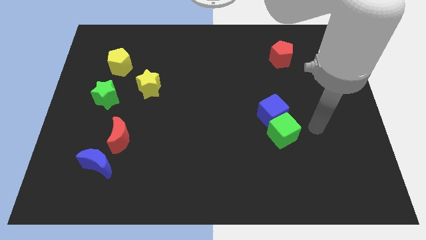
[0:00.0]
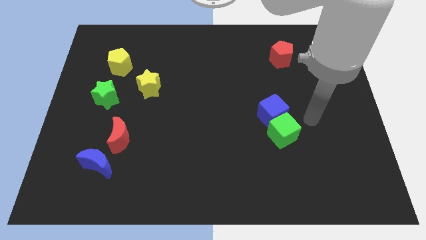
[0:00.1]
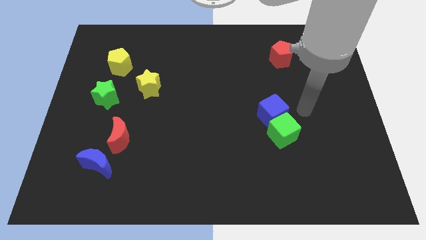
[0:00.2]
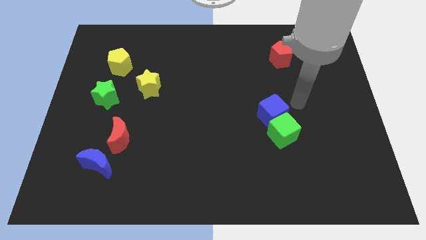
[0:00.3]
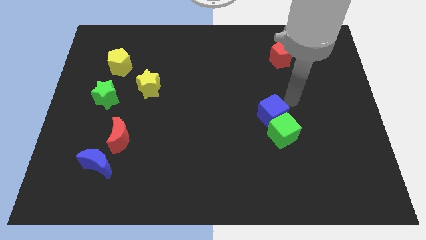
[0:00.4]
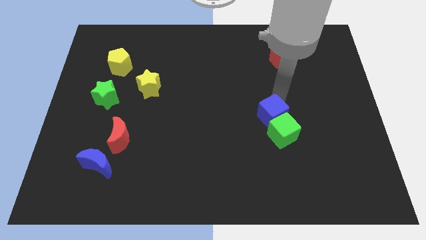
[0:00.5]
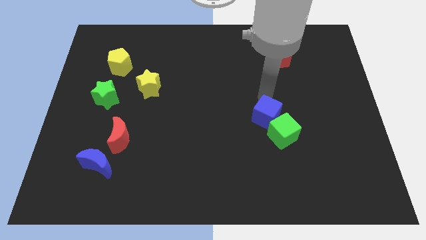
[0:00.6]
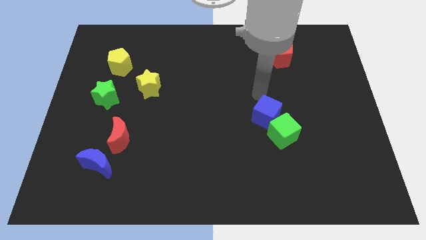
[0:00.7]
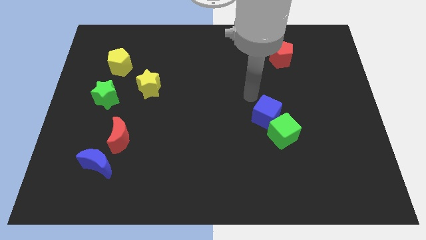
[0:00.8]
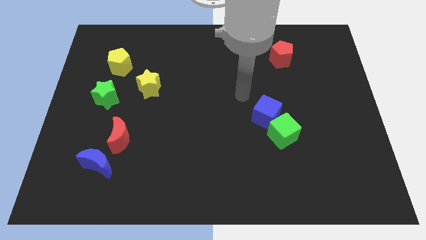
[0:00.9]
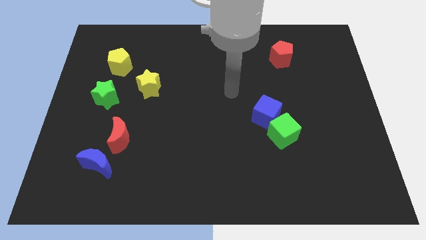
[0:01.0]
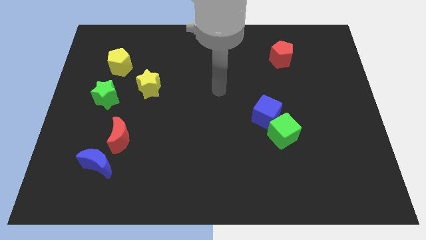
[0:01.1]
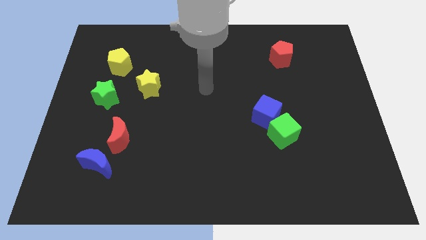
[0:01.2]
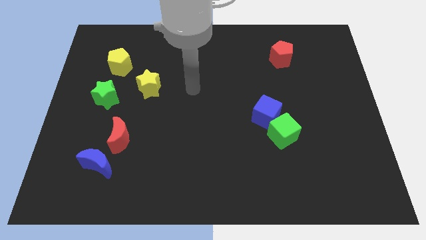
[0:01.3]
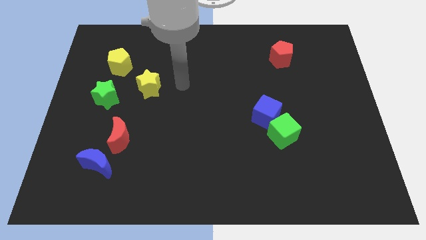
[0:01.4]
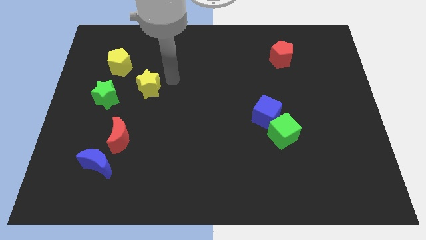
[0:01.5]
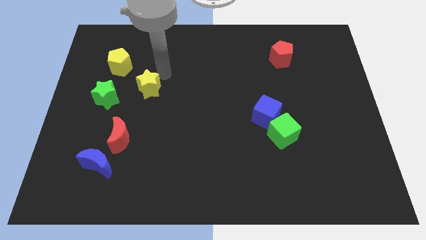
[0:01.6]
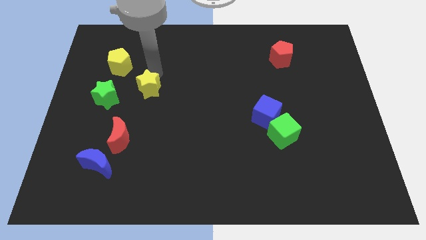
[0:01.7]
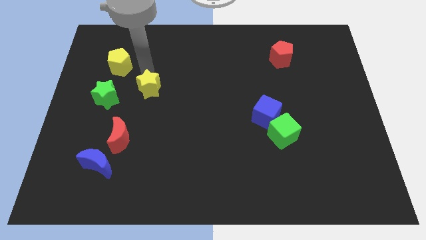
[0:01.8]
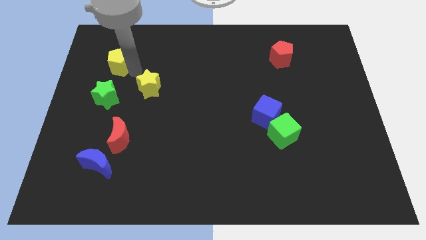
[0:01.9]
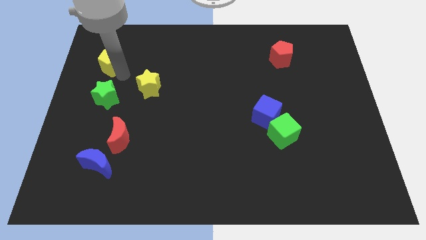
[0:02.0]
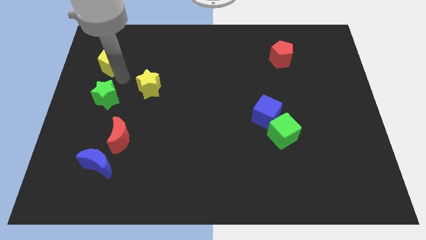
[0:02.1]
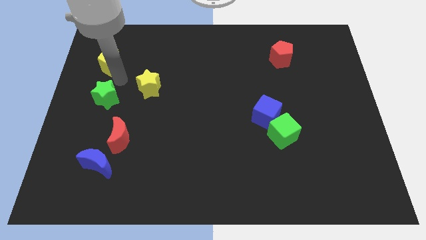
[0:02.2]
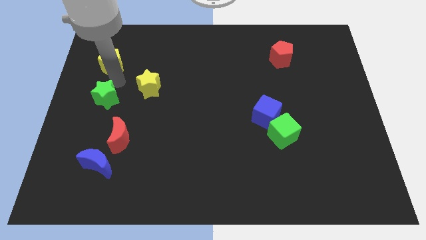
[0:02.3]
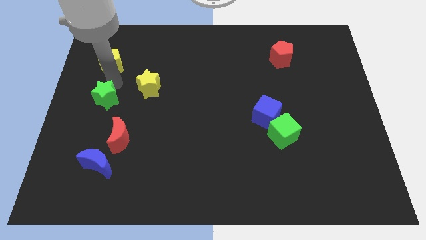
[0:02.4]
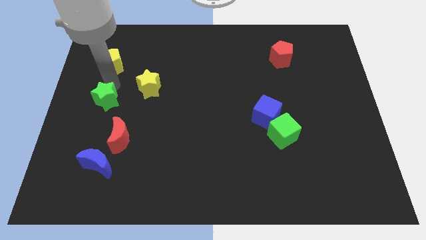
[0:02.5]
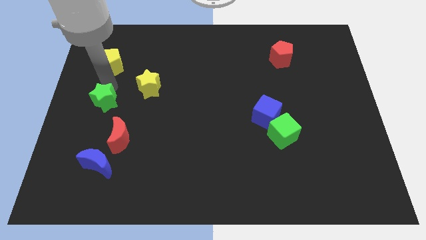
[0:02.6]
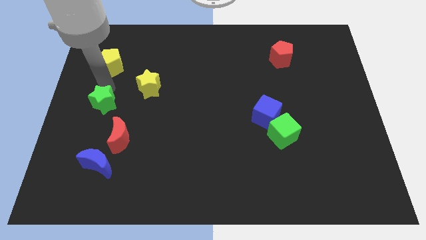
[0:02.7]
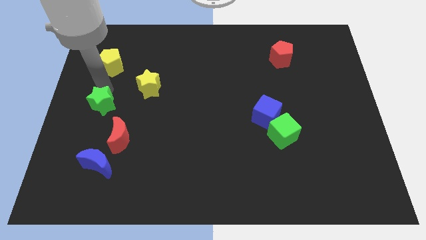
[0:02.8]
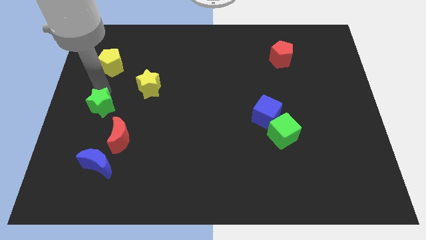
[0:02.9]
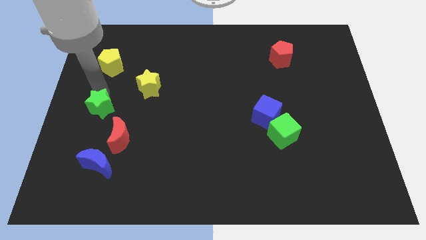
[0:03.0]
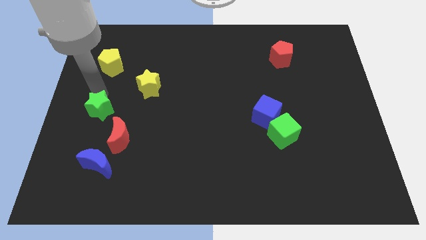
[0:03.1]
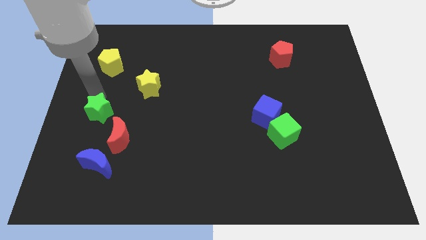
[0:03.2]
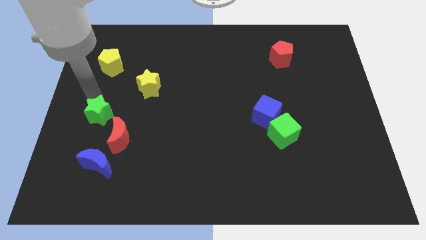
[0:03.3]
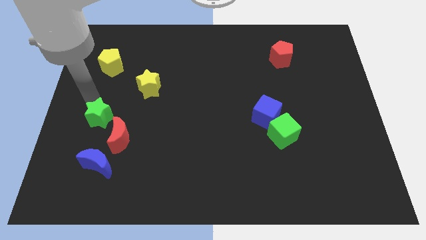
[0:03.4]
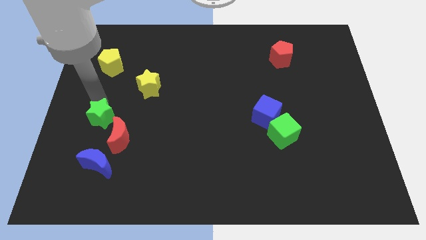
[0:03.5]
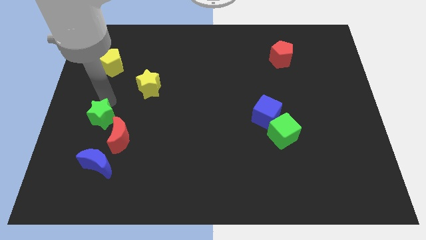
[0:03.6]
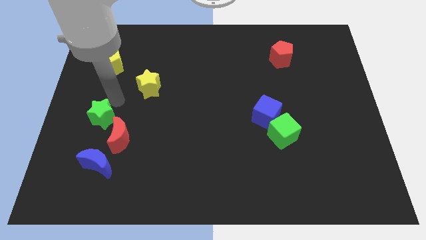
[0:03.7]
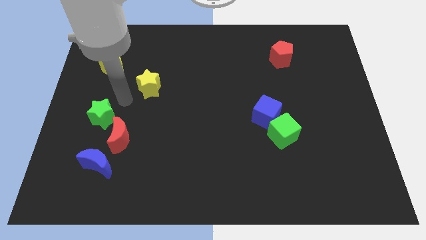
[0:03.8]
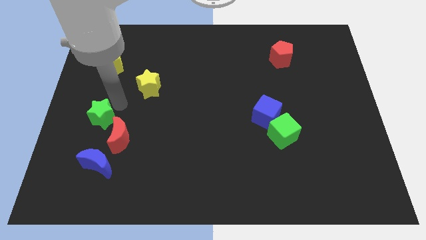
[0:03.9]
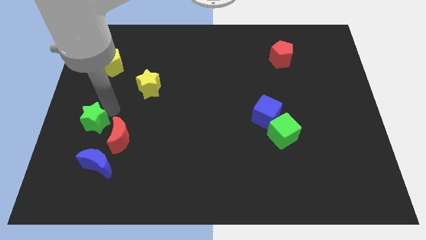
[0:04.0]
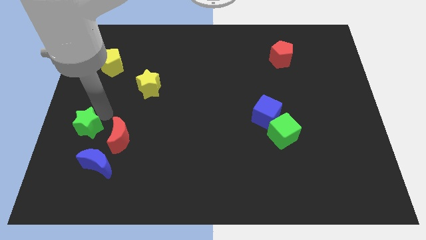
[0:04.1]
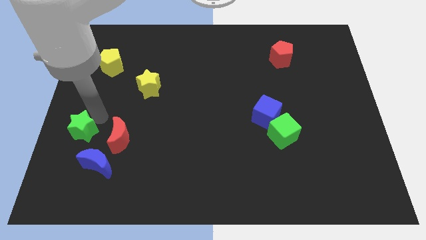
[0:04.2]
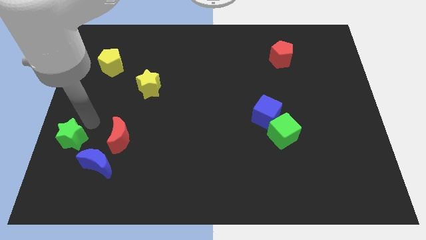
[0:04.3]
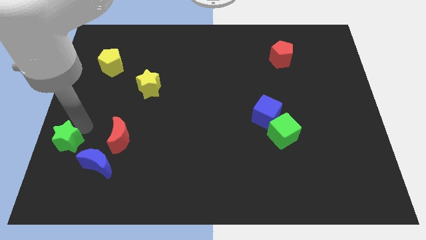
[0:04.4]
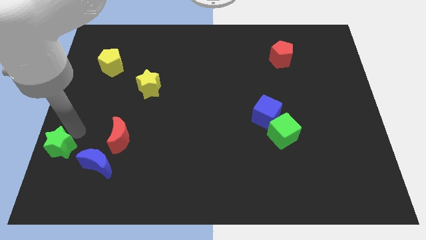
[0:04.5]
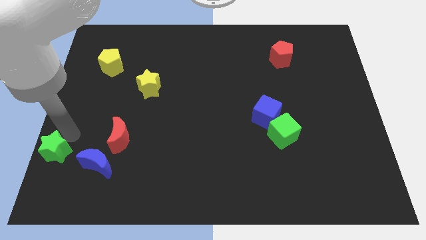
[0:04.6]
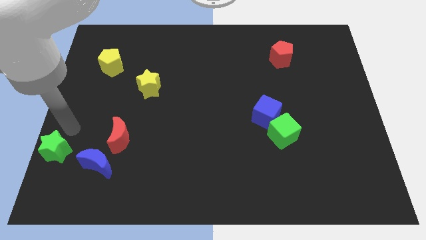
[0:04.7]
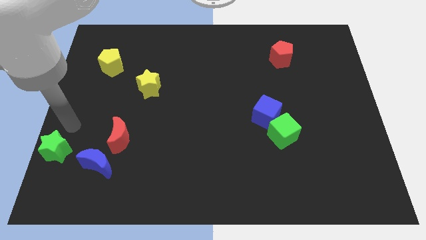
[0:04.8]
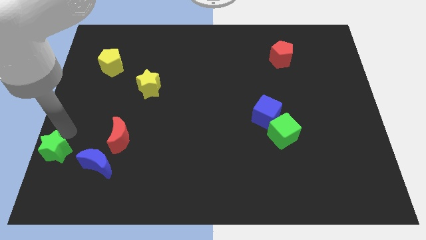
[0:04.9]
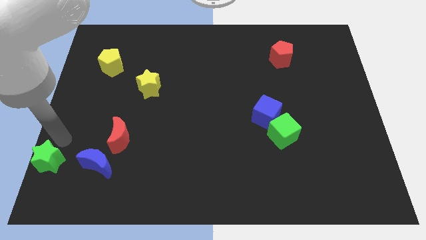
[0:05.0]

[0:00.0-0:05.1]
move the green star to the bottom left of the board
